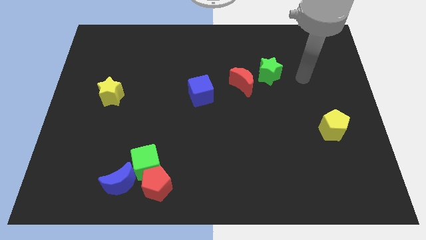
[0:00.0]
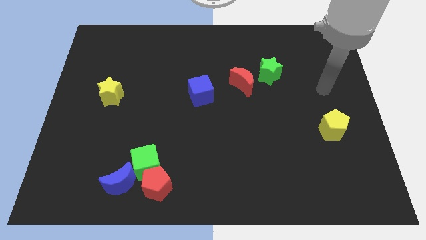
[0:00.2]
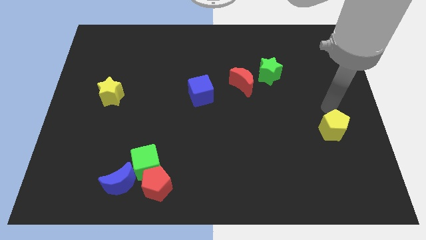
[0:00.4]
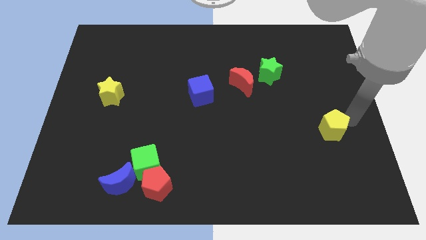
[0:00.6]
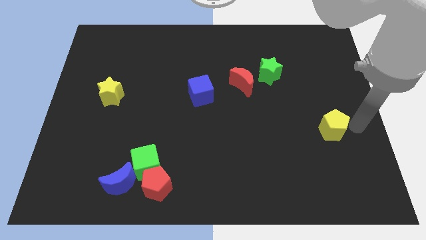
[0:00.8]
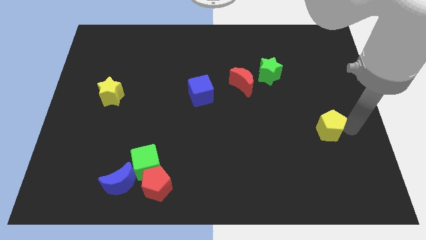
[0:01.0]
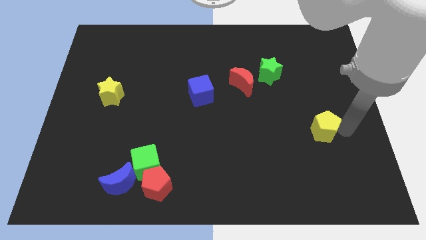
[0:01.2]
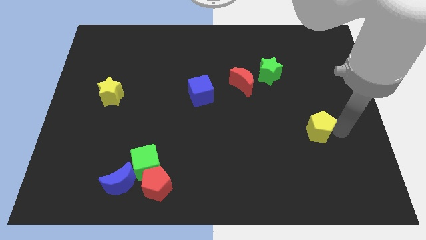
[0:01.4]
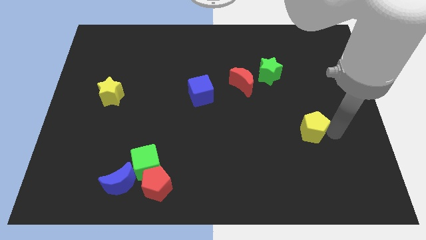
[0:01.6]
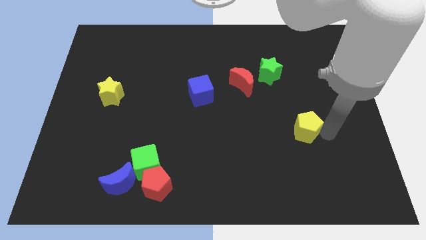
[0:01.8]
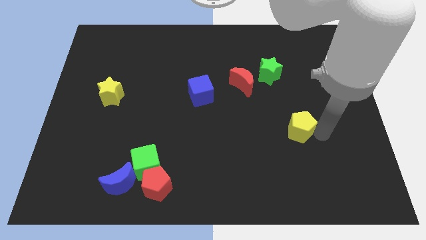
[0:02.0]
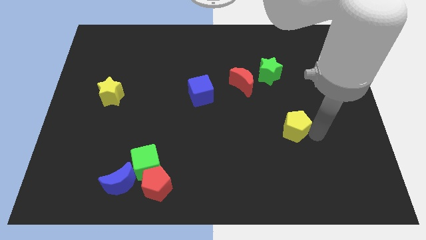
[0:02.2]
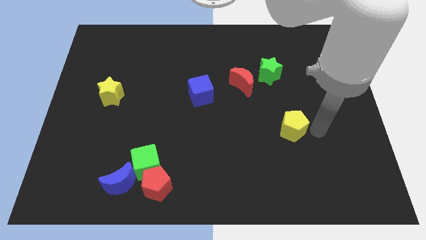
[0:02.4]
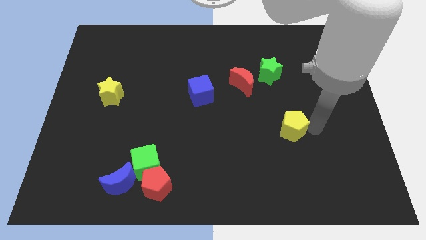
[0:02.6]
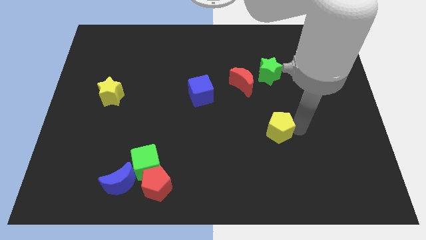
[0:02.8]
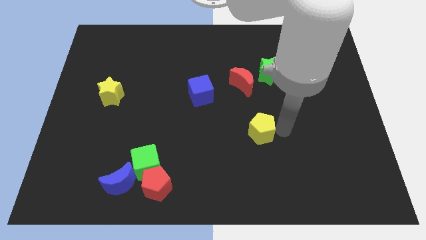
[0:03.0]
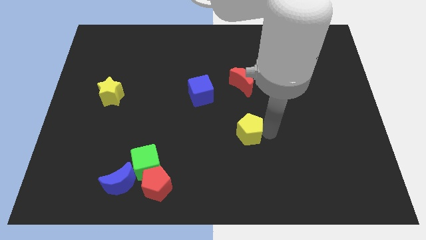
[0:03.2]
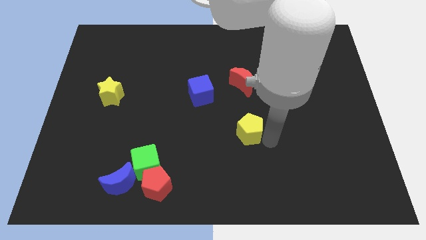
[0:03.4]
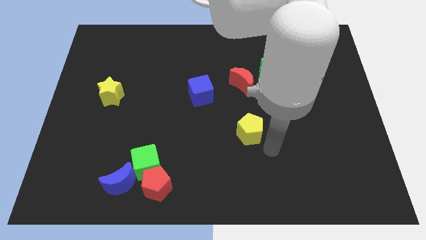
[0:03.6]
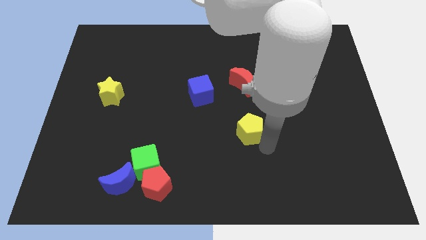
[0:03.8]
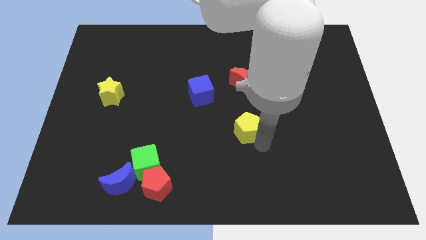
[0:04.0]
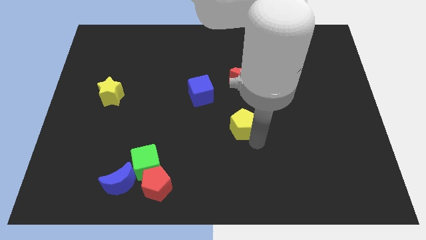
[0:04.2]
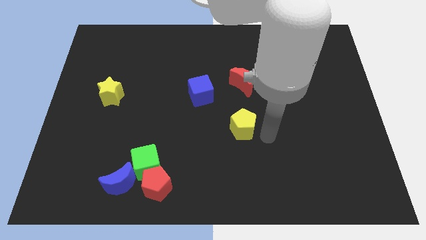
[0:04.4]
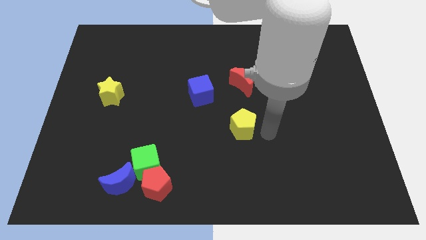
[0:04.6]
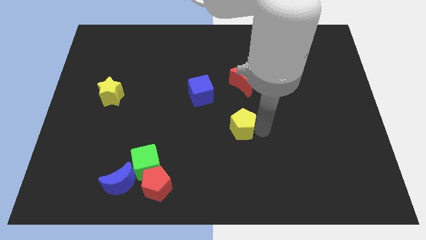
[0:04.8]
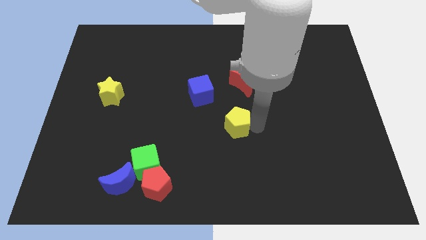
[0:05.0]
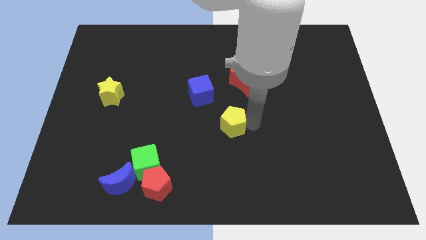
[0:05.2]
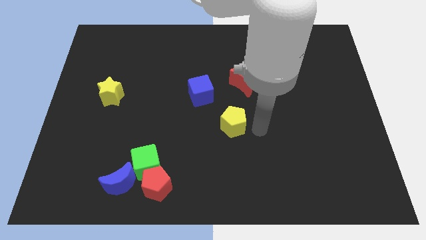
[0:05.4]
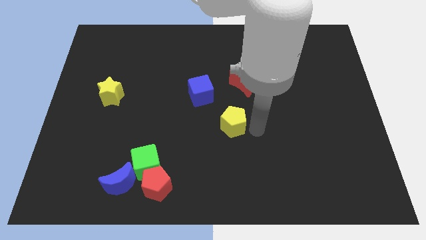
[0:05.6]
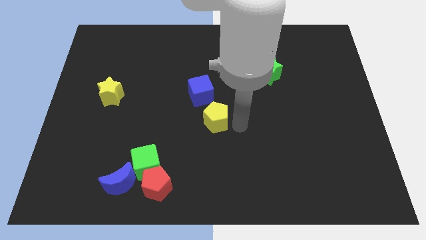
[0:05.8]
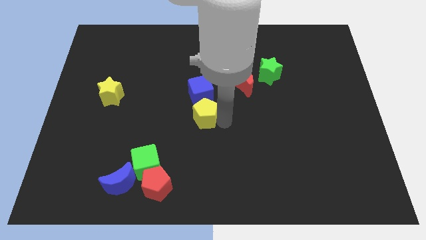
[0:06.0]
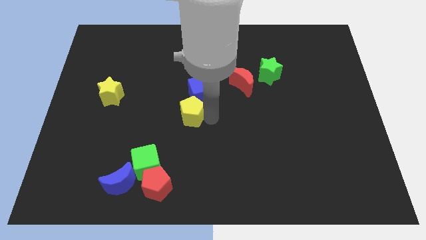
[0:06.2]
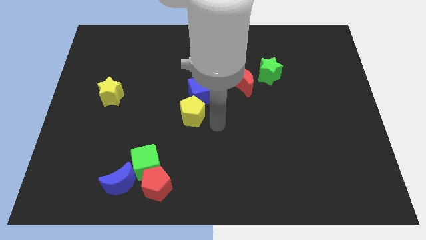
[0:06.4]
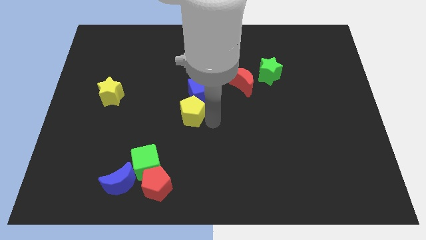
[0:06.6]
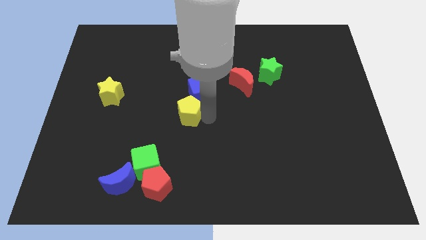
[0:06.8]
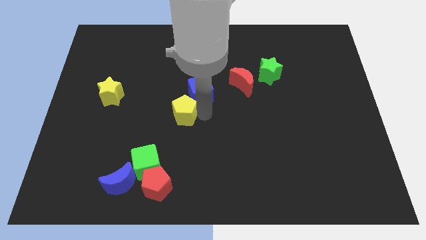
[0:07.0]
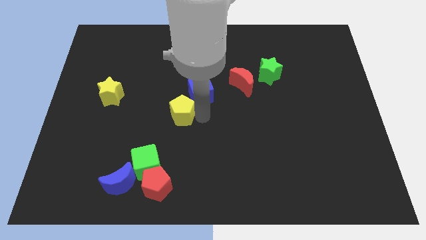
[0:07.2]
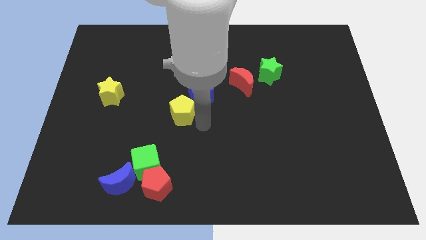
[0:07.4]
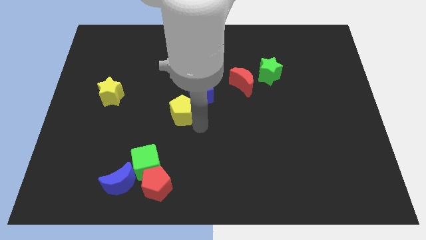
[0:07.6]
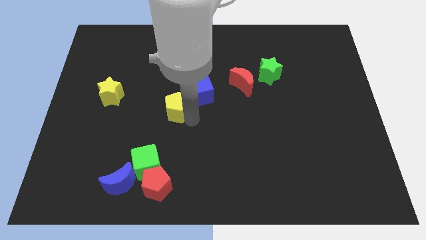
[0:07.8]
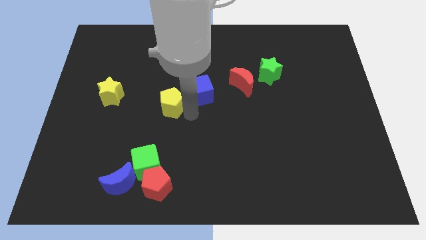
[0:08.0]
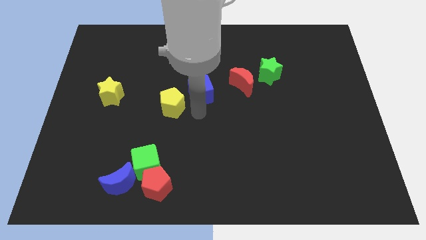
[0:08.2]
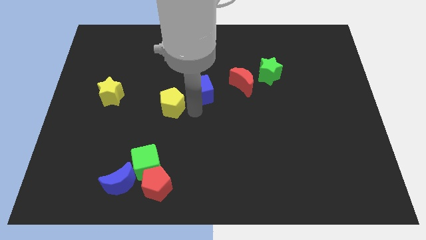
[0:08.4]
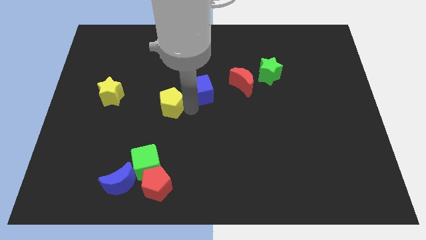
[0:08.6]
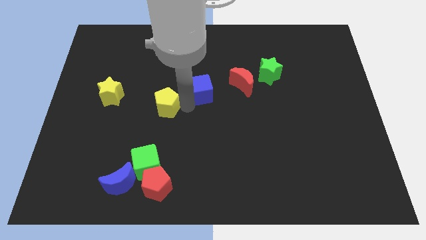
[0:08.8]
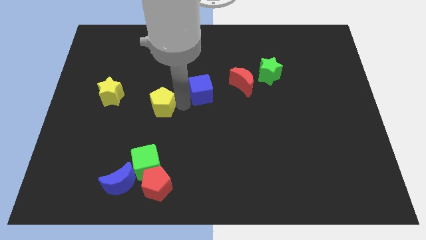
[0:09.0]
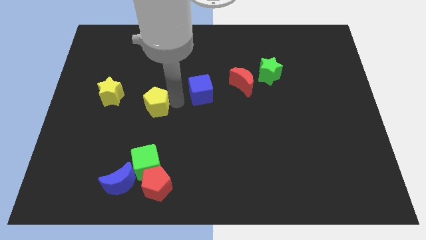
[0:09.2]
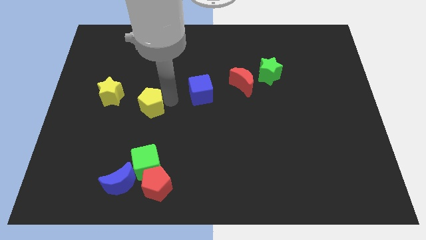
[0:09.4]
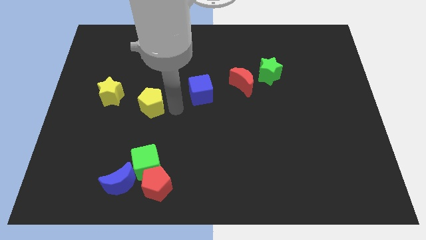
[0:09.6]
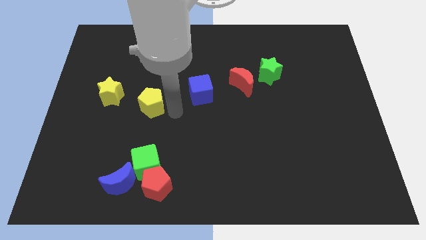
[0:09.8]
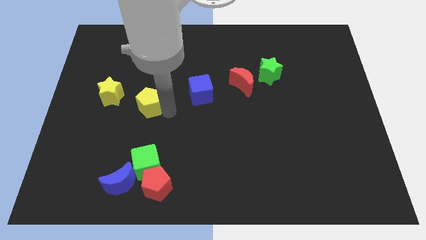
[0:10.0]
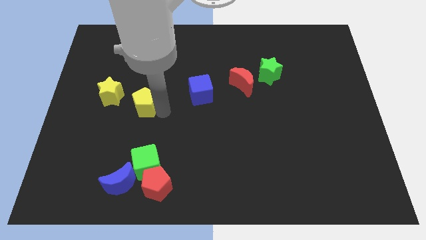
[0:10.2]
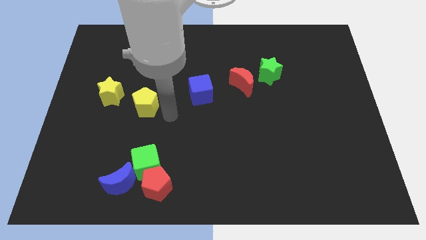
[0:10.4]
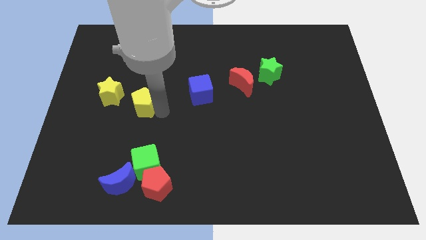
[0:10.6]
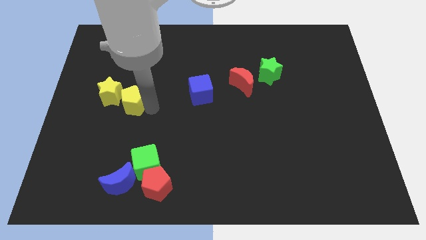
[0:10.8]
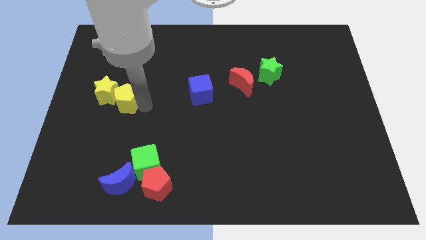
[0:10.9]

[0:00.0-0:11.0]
move the yellow pentagon to the yellow star

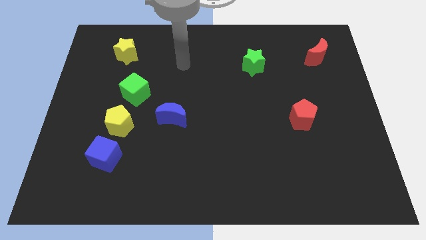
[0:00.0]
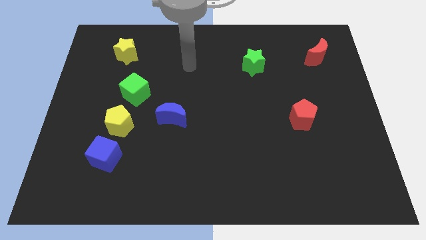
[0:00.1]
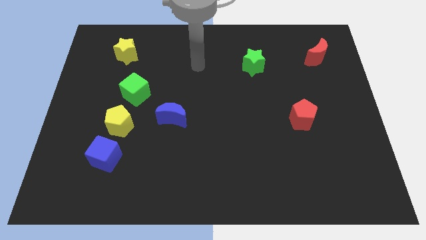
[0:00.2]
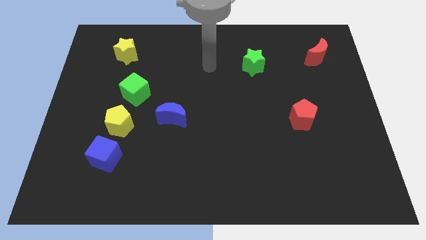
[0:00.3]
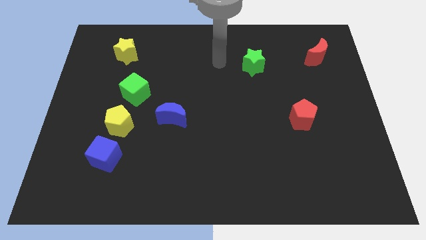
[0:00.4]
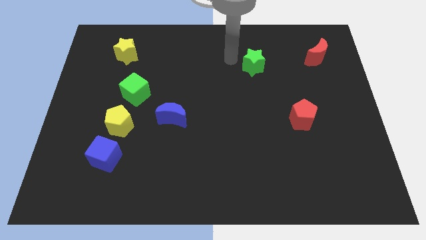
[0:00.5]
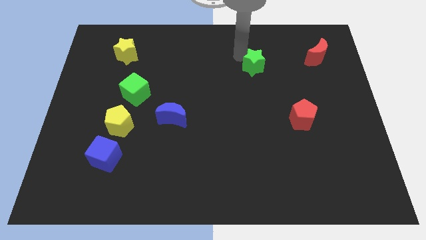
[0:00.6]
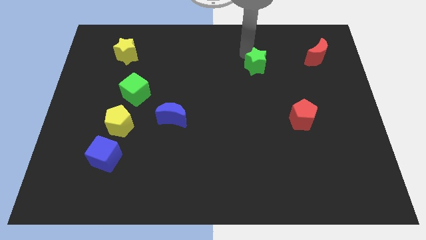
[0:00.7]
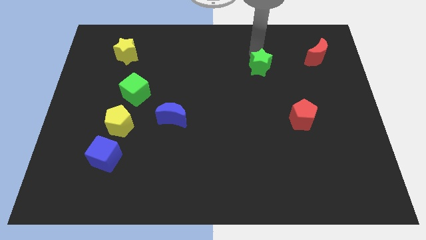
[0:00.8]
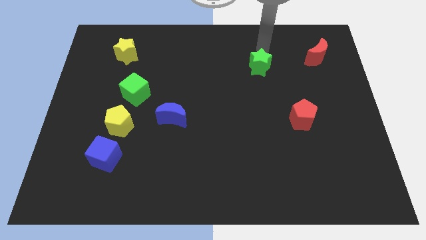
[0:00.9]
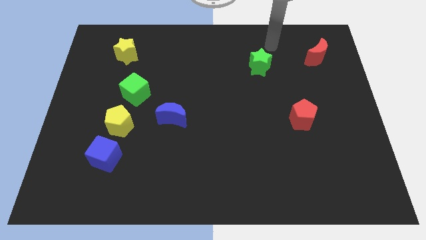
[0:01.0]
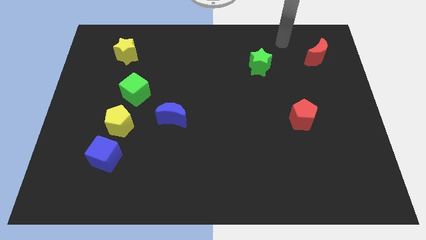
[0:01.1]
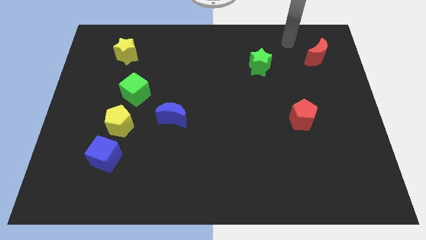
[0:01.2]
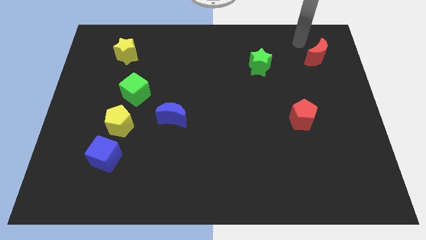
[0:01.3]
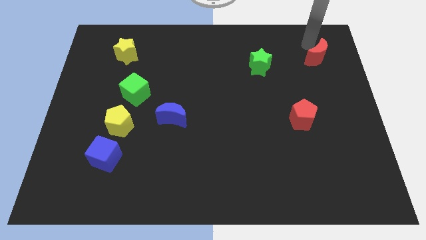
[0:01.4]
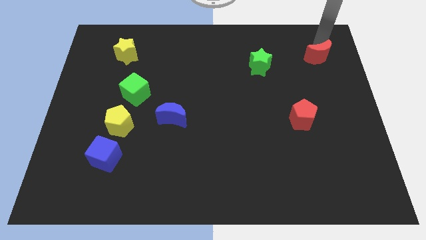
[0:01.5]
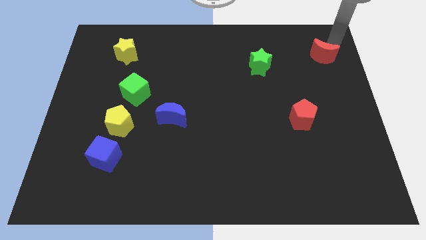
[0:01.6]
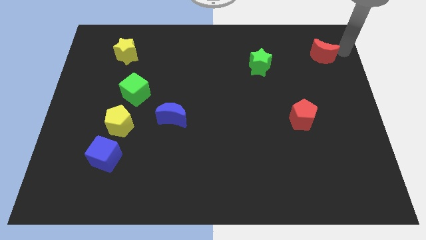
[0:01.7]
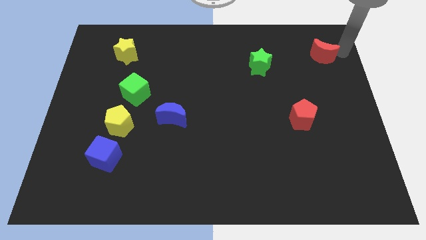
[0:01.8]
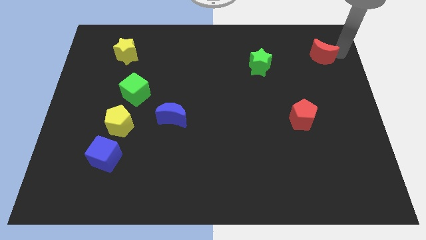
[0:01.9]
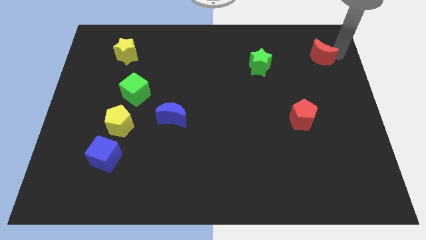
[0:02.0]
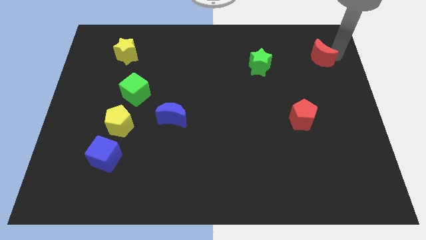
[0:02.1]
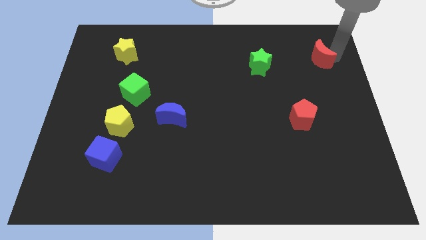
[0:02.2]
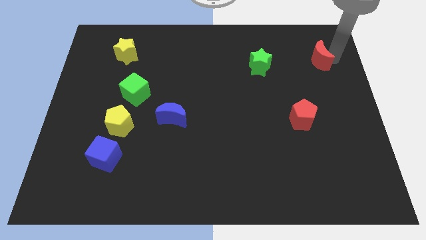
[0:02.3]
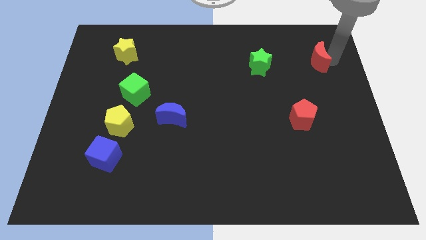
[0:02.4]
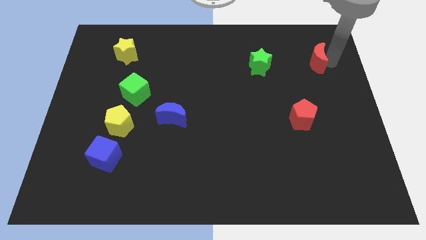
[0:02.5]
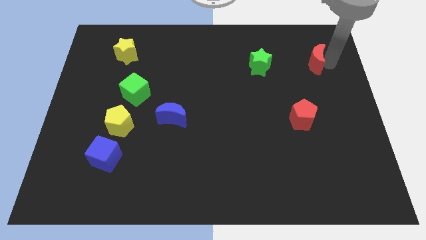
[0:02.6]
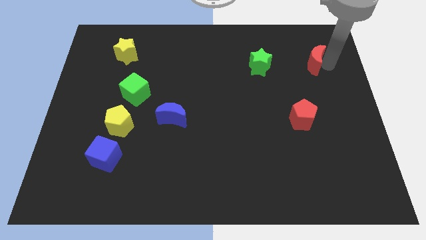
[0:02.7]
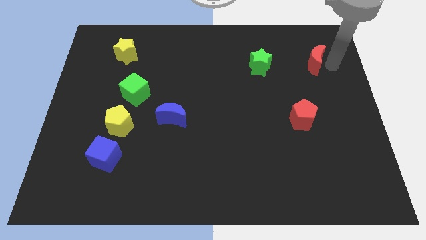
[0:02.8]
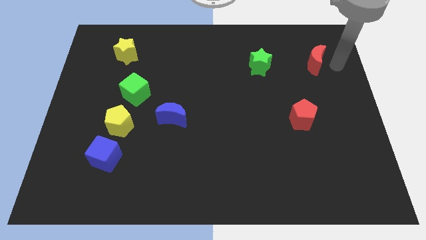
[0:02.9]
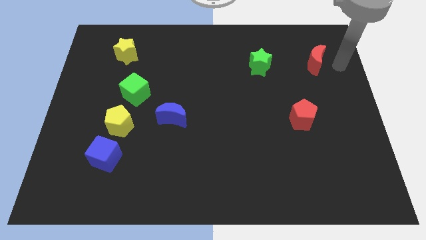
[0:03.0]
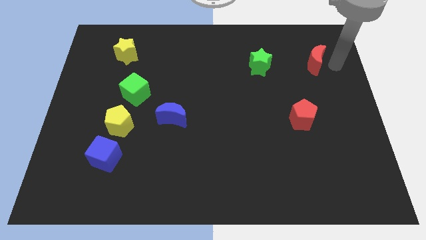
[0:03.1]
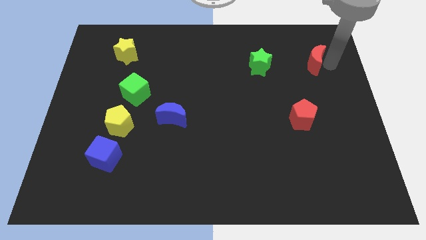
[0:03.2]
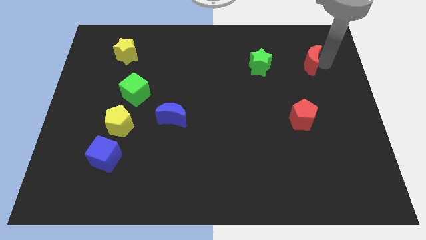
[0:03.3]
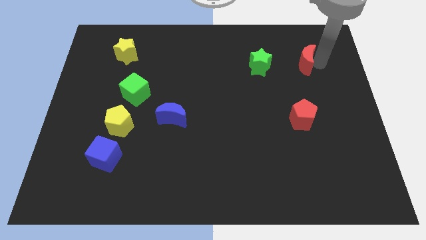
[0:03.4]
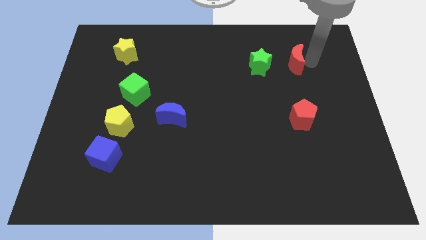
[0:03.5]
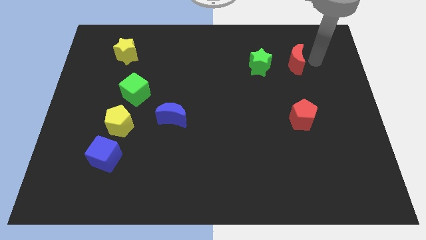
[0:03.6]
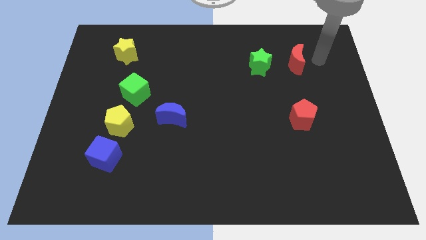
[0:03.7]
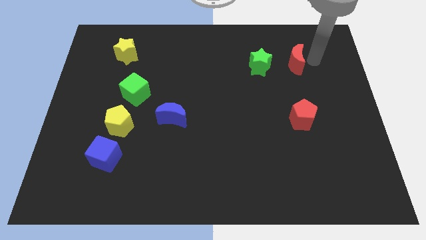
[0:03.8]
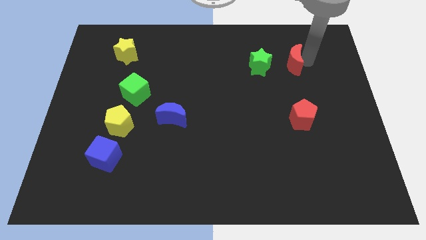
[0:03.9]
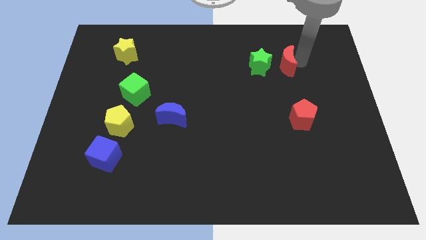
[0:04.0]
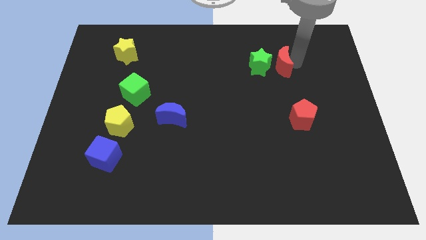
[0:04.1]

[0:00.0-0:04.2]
slide the red moon close to the green star
